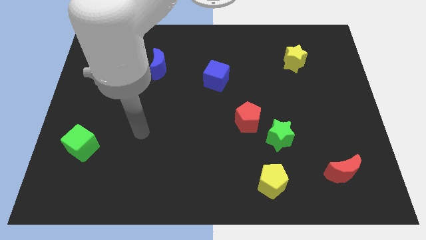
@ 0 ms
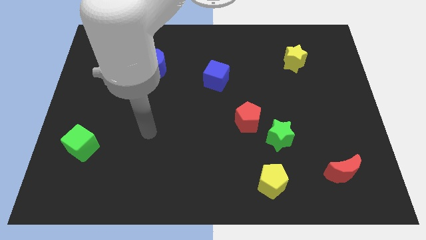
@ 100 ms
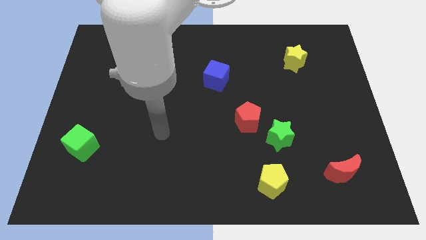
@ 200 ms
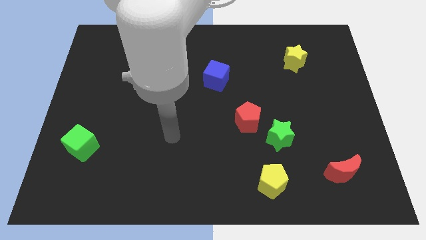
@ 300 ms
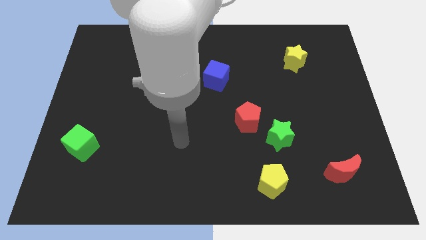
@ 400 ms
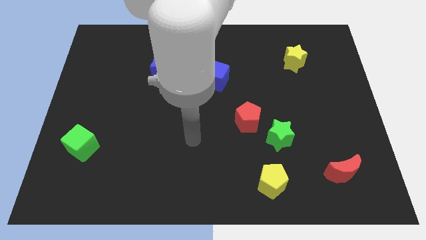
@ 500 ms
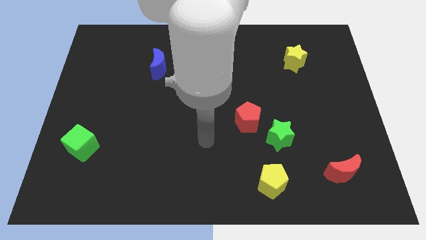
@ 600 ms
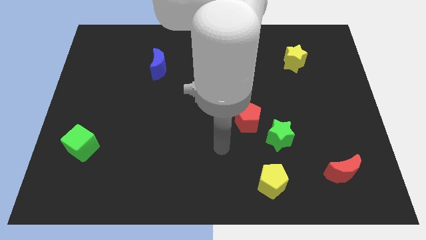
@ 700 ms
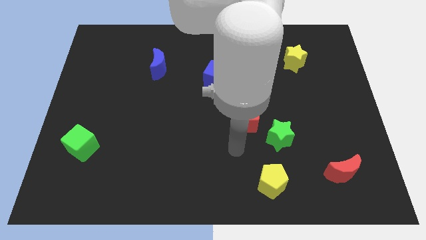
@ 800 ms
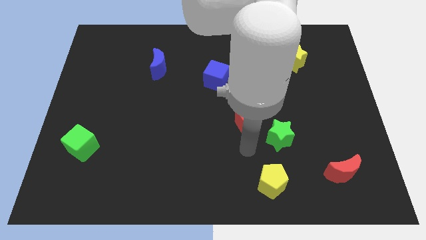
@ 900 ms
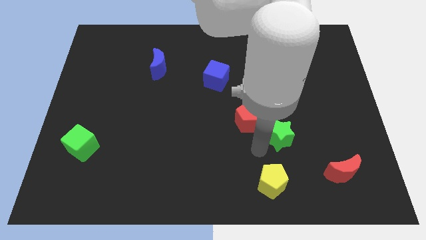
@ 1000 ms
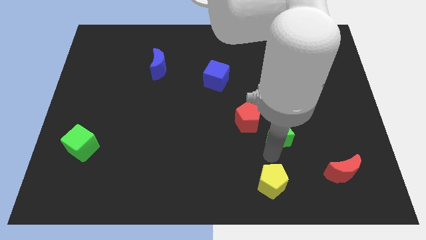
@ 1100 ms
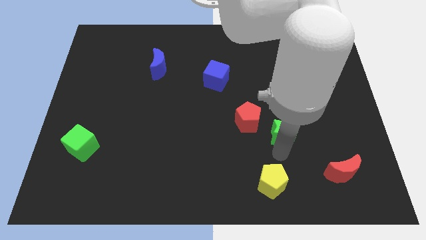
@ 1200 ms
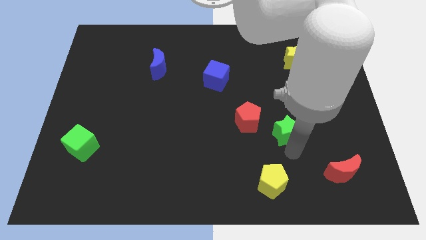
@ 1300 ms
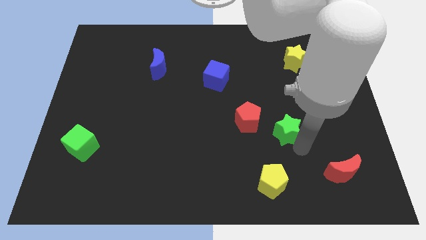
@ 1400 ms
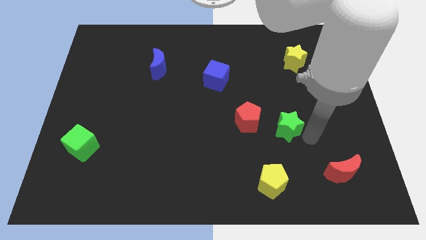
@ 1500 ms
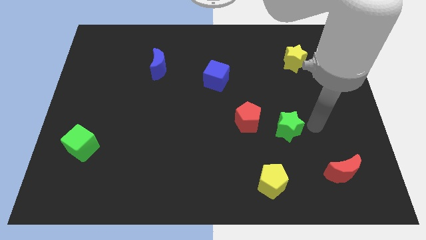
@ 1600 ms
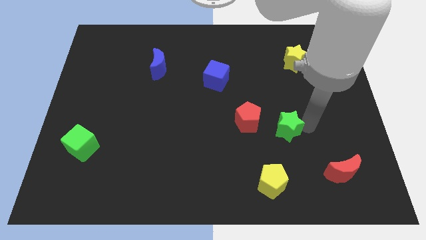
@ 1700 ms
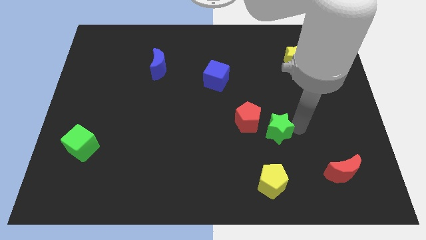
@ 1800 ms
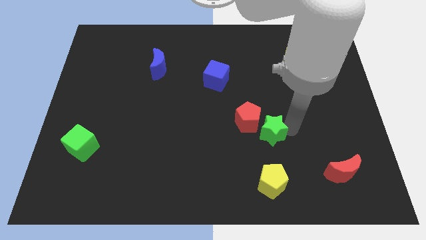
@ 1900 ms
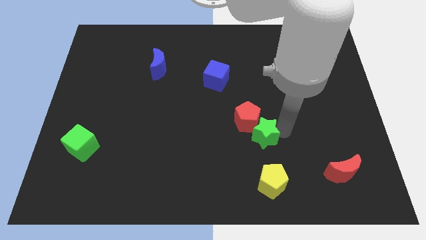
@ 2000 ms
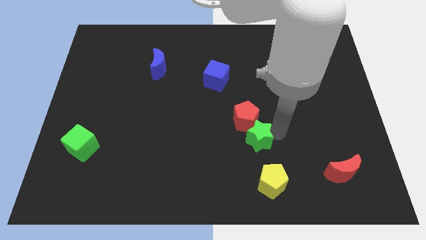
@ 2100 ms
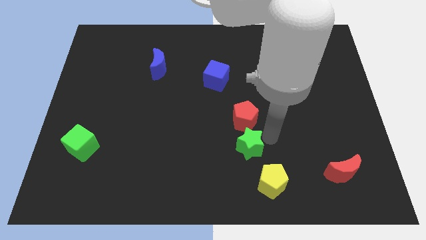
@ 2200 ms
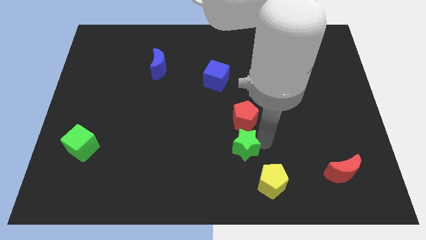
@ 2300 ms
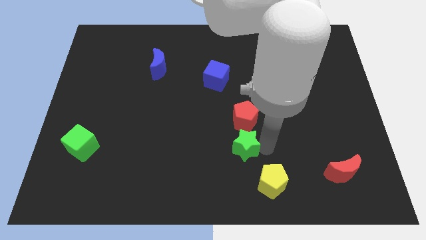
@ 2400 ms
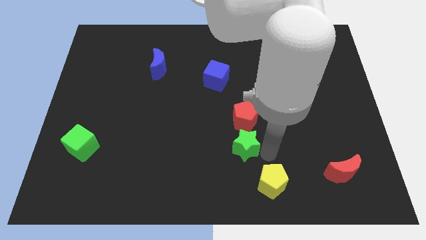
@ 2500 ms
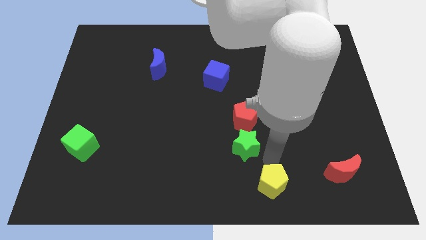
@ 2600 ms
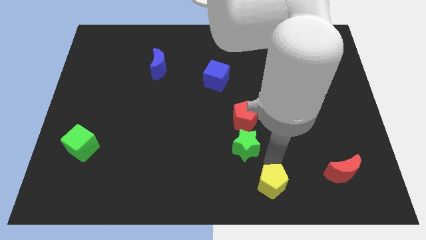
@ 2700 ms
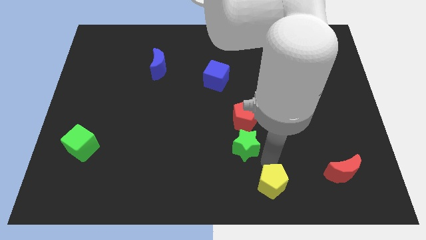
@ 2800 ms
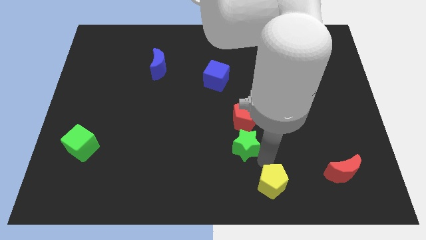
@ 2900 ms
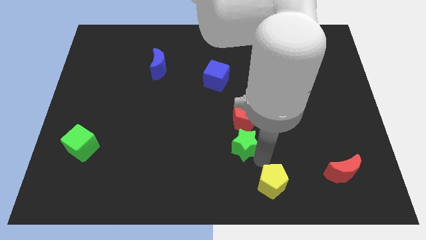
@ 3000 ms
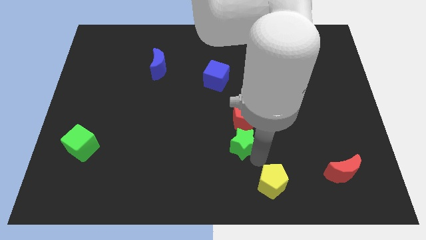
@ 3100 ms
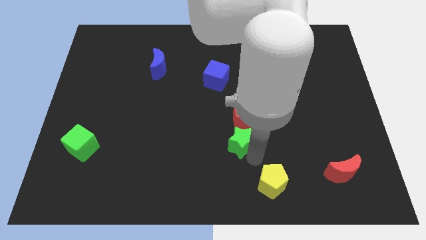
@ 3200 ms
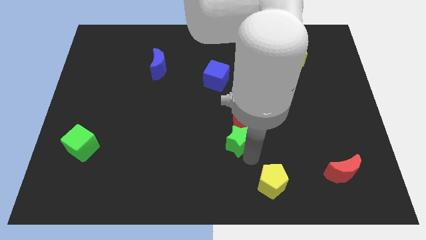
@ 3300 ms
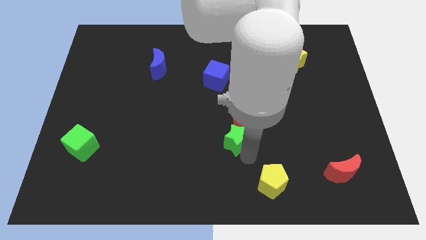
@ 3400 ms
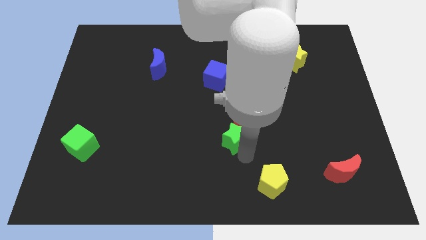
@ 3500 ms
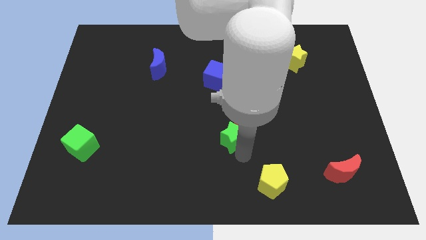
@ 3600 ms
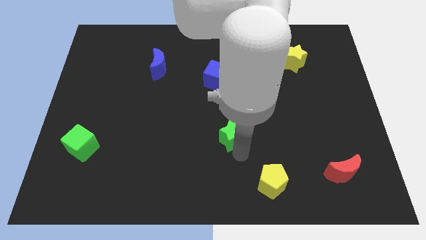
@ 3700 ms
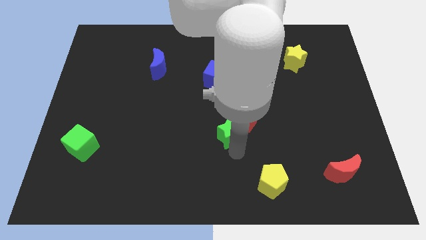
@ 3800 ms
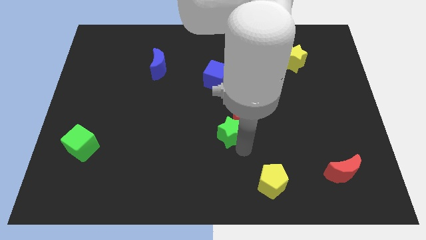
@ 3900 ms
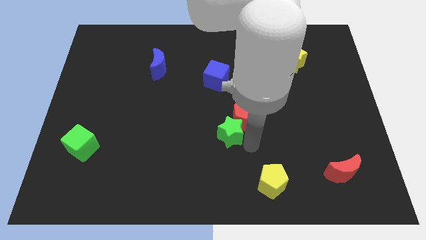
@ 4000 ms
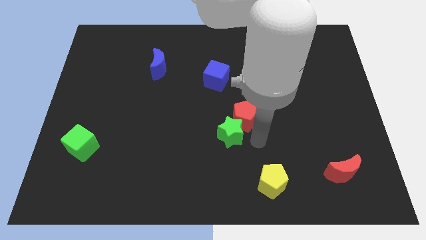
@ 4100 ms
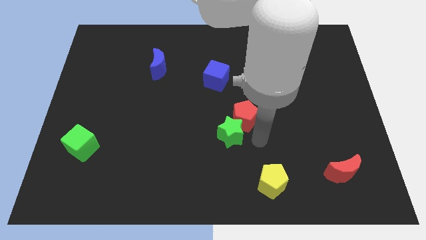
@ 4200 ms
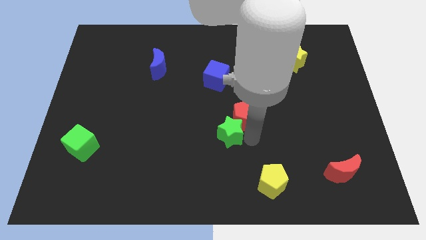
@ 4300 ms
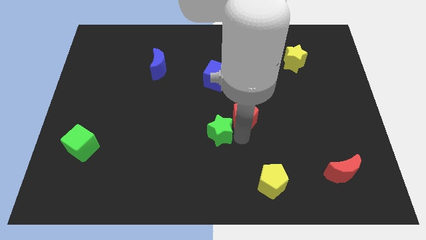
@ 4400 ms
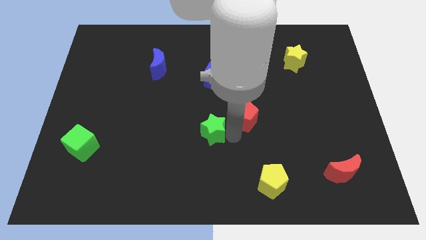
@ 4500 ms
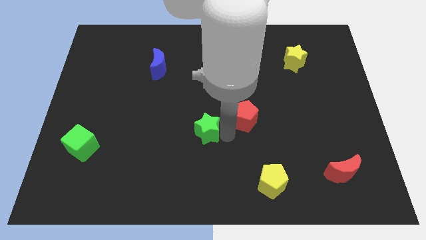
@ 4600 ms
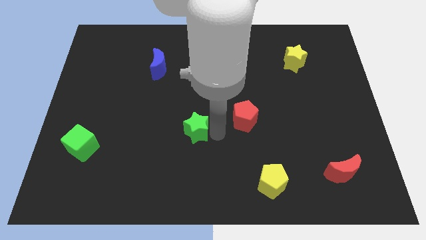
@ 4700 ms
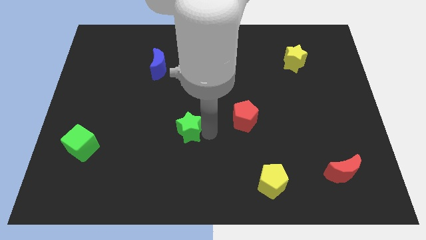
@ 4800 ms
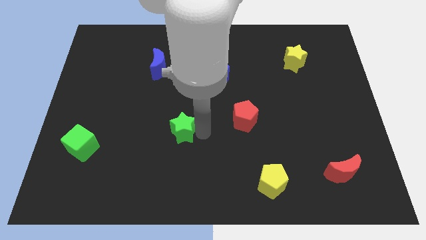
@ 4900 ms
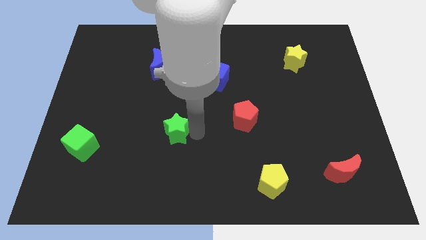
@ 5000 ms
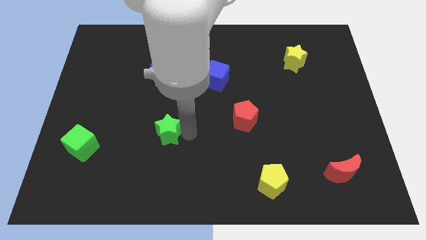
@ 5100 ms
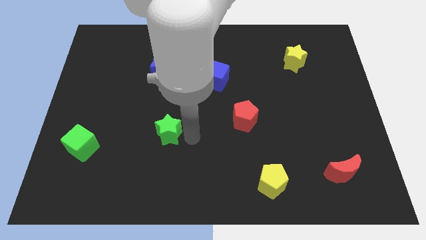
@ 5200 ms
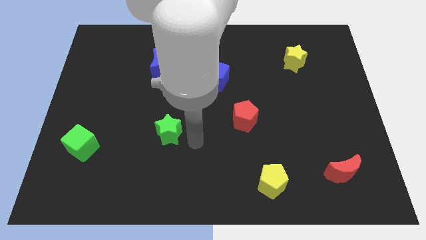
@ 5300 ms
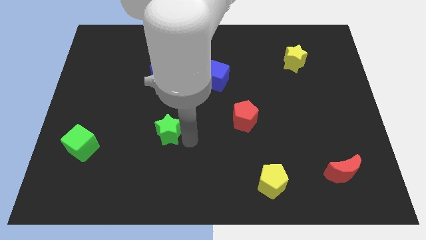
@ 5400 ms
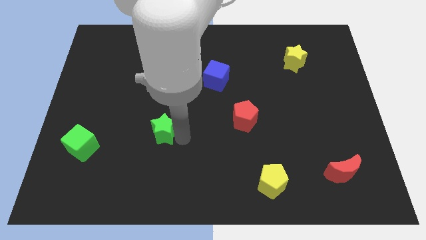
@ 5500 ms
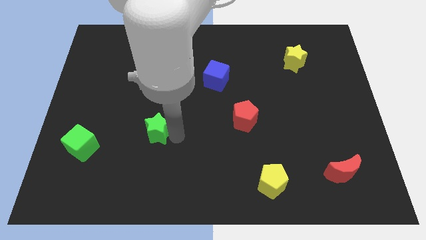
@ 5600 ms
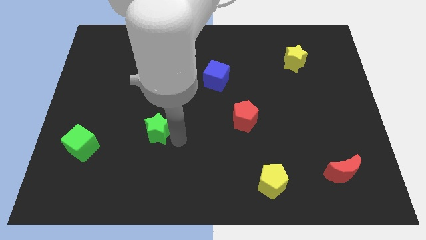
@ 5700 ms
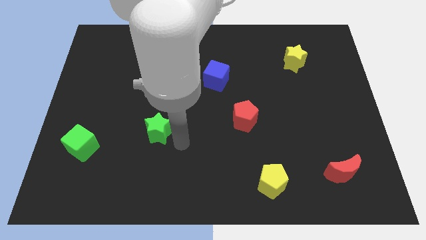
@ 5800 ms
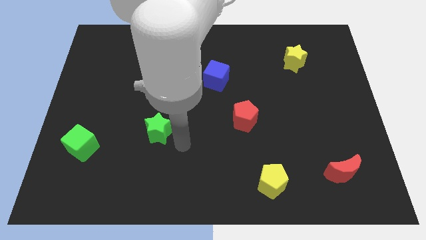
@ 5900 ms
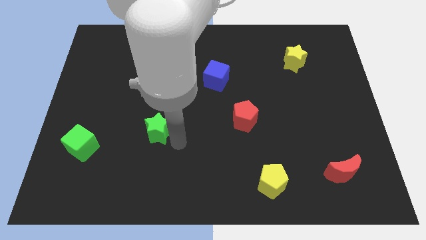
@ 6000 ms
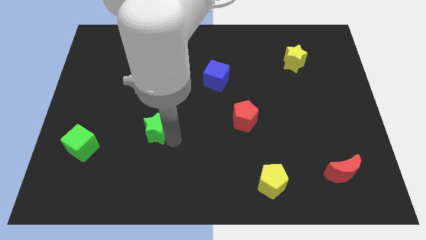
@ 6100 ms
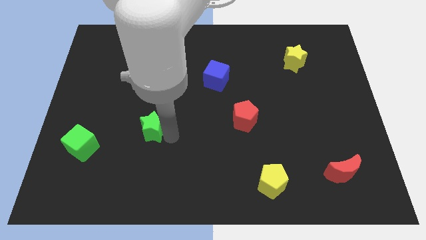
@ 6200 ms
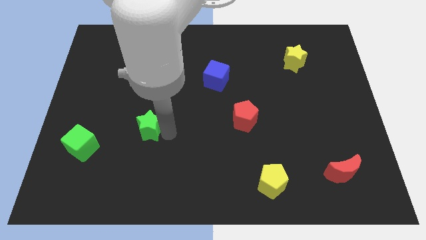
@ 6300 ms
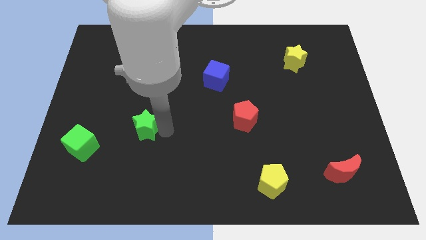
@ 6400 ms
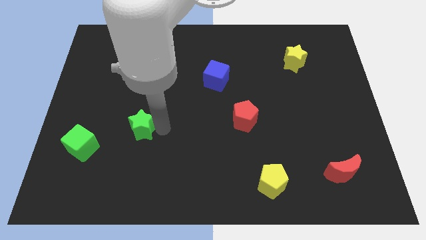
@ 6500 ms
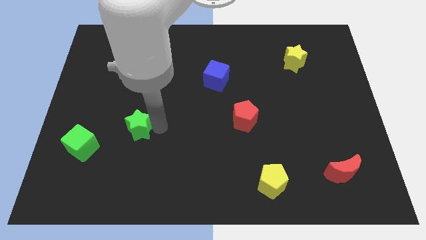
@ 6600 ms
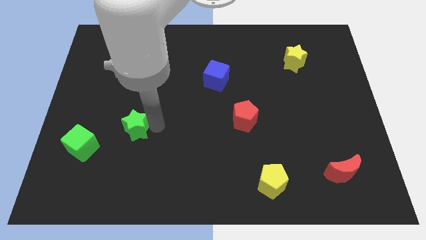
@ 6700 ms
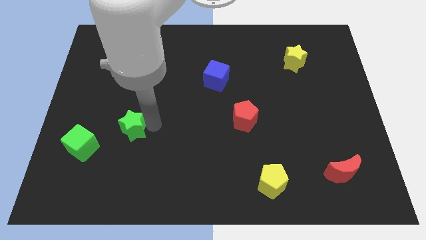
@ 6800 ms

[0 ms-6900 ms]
slide the green star to the top right side of the green cube

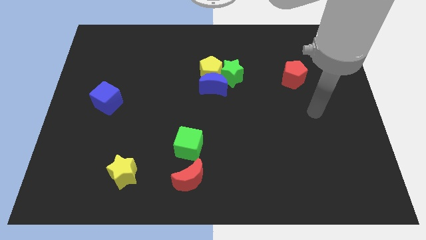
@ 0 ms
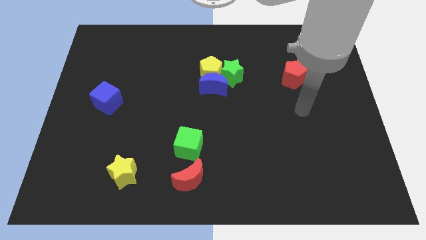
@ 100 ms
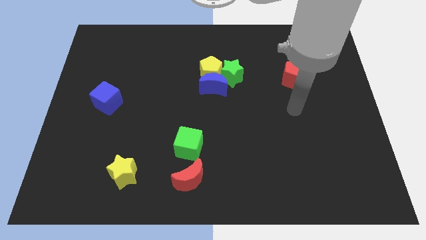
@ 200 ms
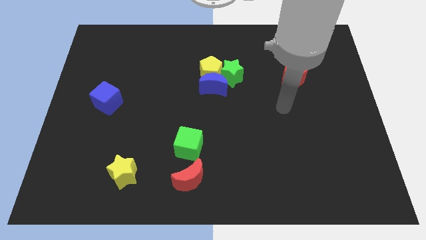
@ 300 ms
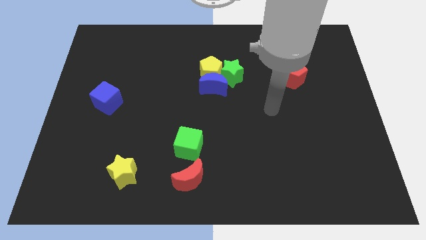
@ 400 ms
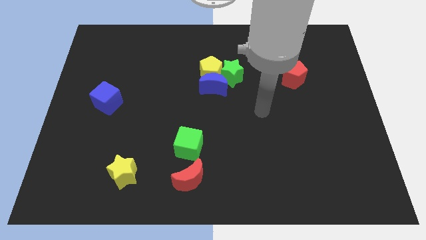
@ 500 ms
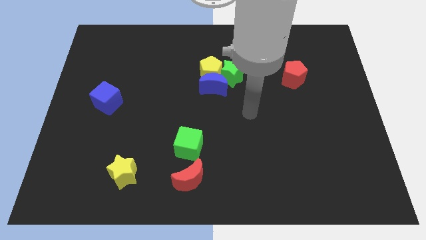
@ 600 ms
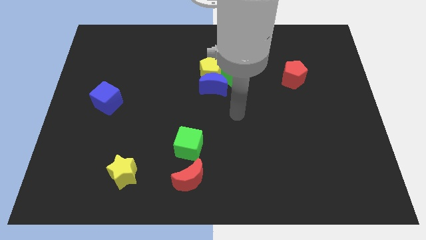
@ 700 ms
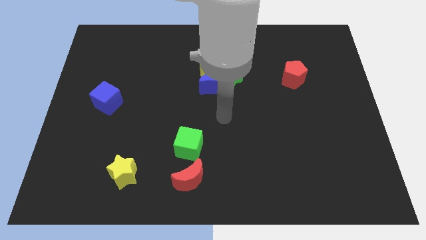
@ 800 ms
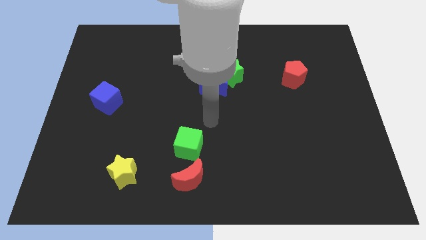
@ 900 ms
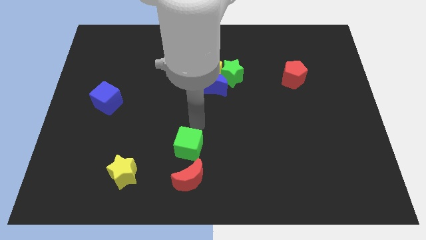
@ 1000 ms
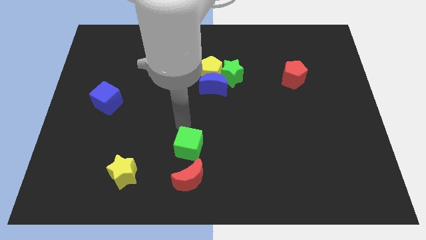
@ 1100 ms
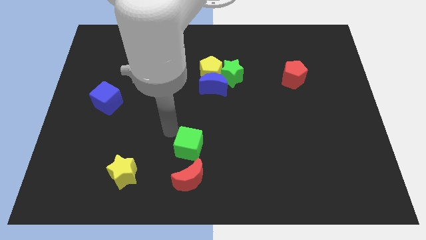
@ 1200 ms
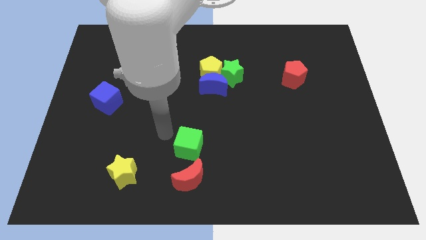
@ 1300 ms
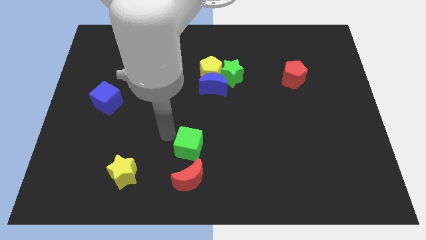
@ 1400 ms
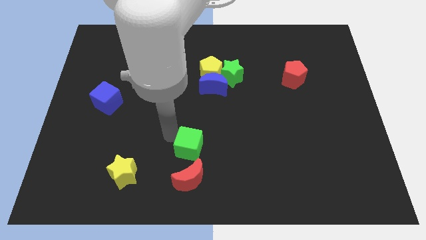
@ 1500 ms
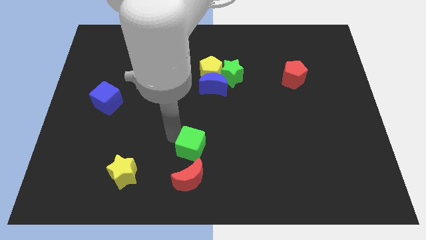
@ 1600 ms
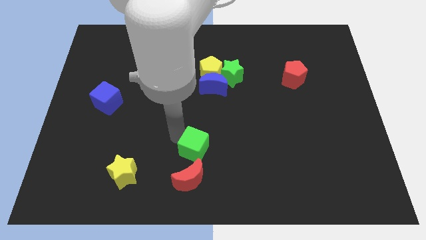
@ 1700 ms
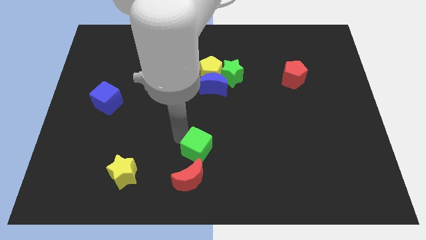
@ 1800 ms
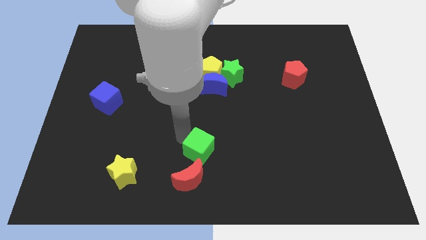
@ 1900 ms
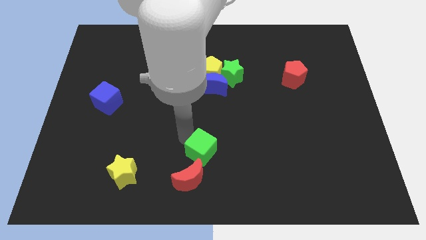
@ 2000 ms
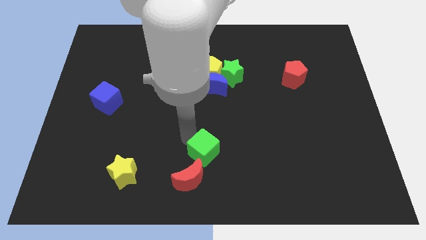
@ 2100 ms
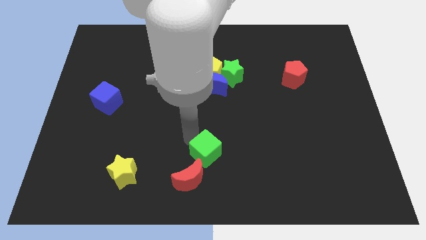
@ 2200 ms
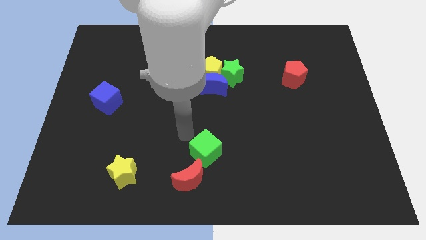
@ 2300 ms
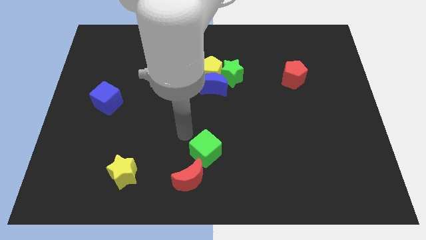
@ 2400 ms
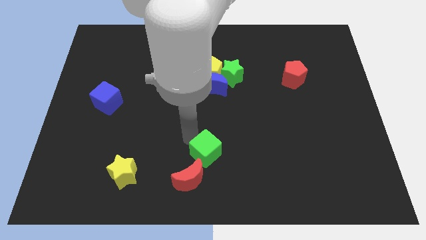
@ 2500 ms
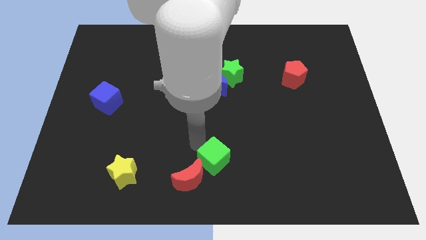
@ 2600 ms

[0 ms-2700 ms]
slide the green cube to the right side of the red moon
